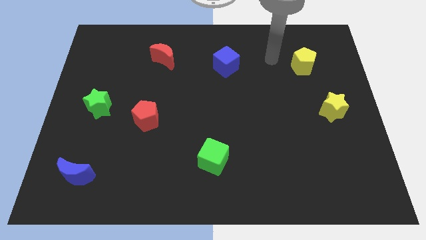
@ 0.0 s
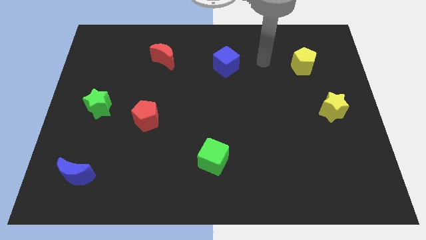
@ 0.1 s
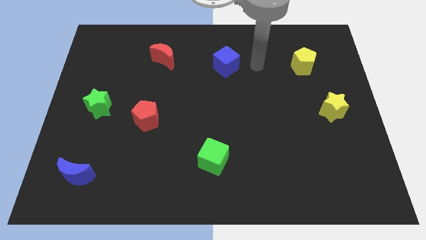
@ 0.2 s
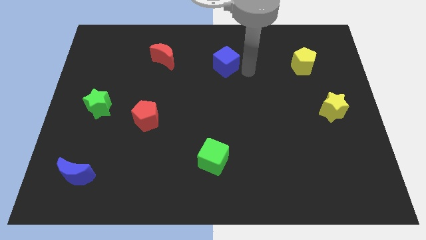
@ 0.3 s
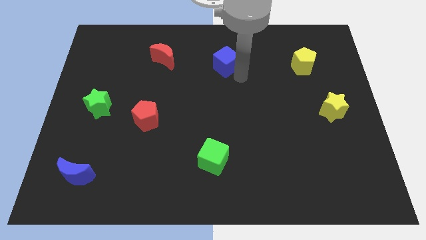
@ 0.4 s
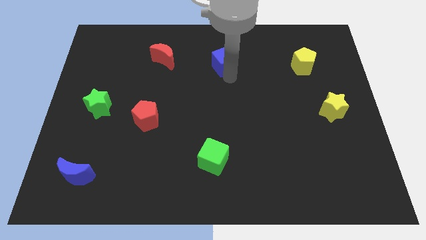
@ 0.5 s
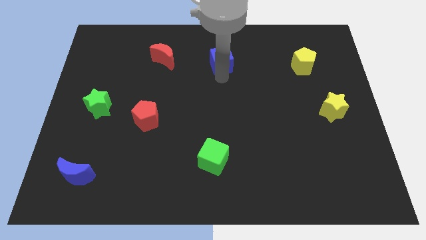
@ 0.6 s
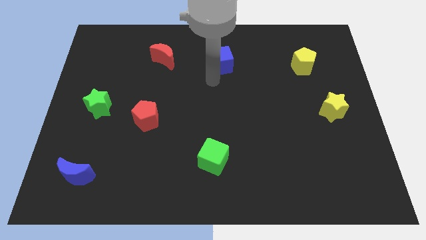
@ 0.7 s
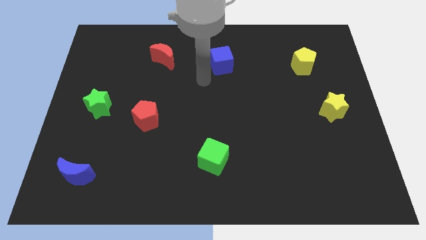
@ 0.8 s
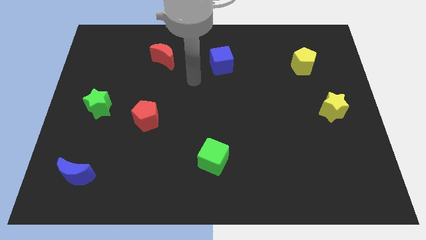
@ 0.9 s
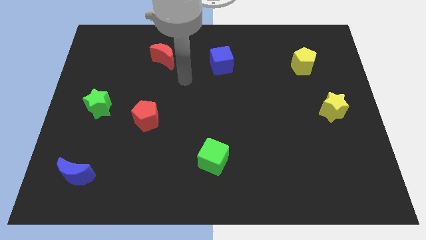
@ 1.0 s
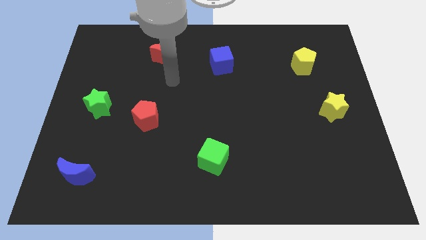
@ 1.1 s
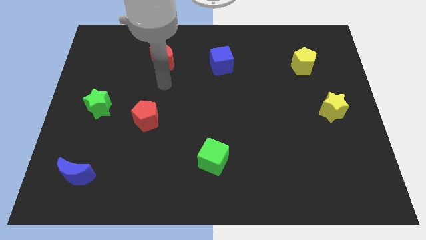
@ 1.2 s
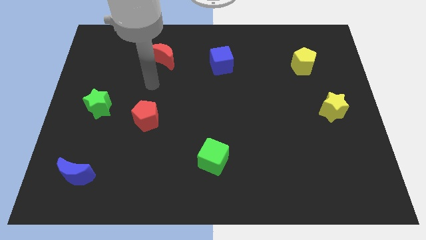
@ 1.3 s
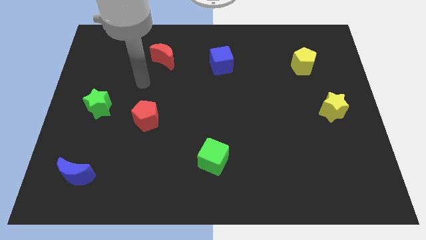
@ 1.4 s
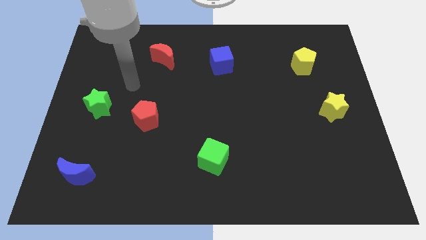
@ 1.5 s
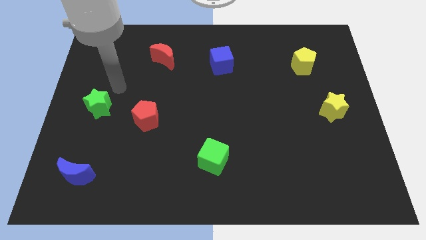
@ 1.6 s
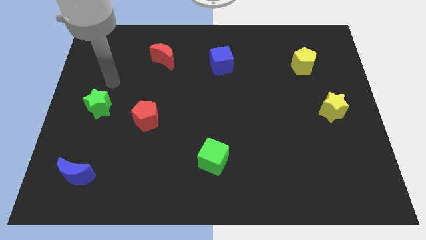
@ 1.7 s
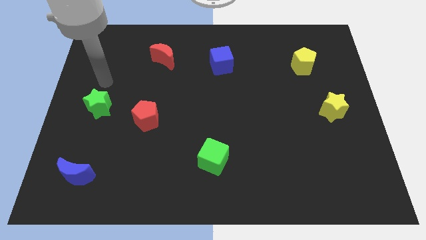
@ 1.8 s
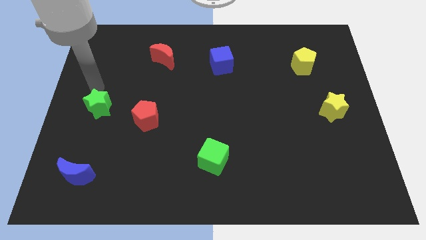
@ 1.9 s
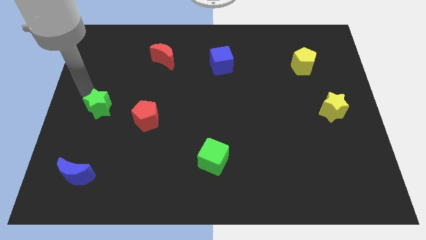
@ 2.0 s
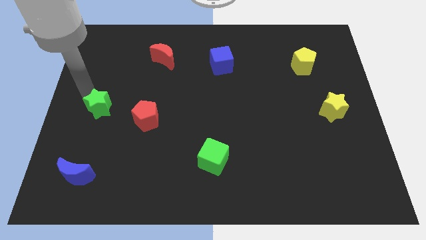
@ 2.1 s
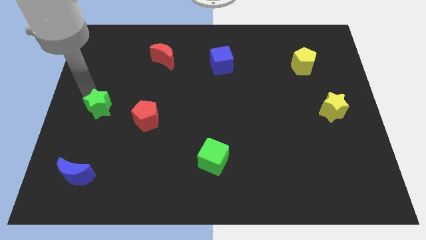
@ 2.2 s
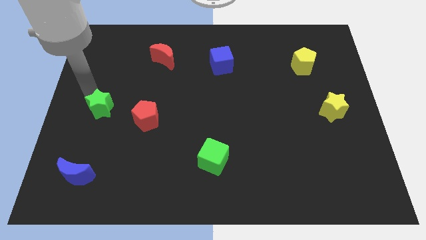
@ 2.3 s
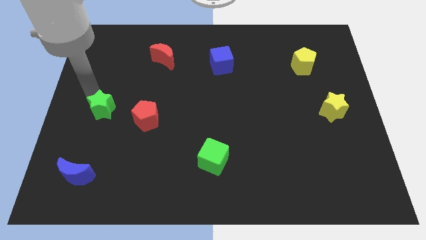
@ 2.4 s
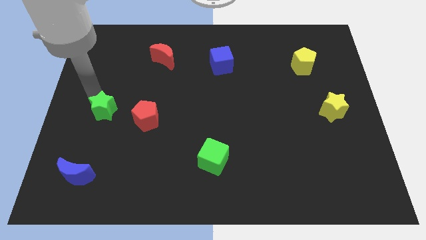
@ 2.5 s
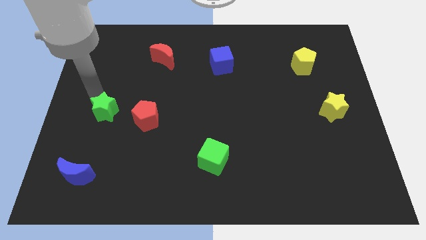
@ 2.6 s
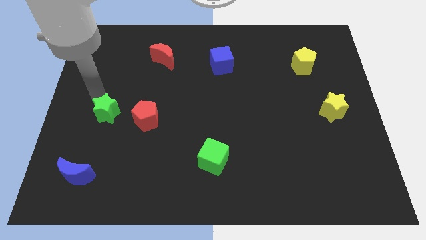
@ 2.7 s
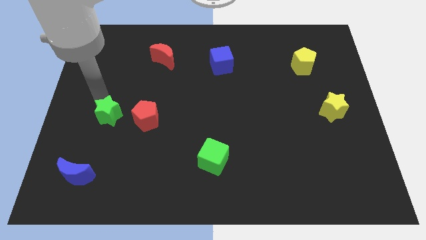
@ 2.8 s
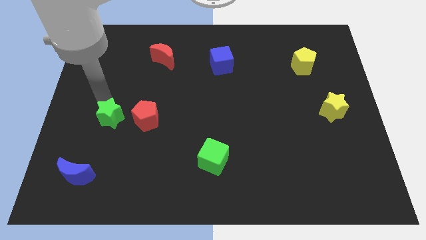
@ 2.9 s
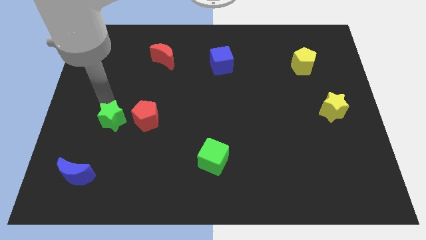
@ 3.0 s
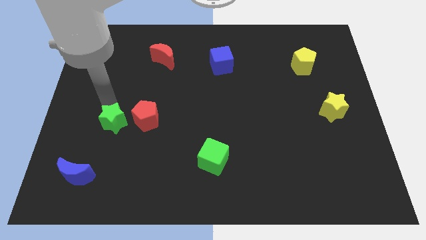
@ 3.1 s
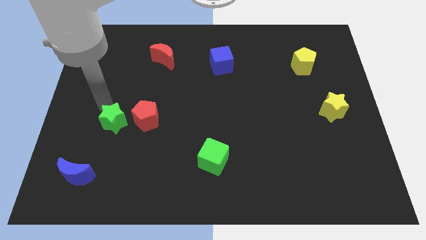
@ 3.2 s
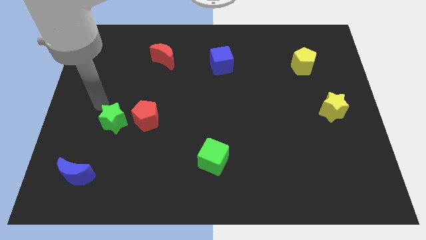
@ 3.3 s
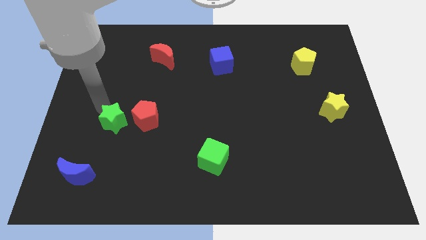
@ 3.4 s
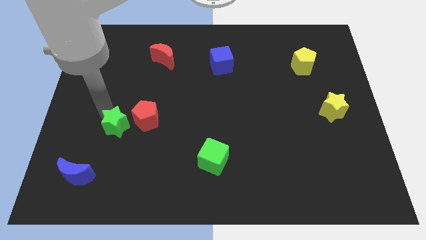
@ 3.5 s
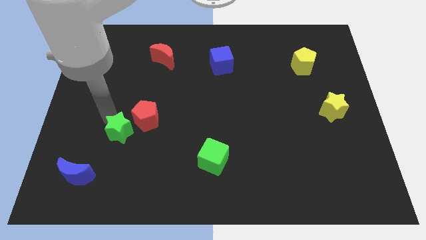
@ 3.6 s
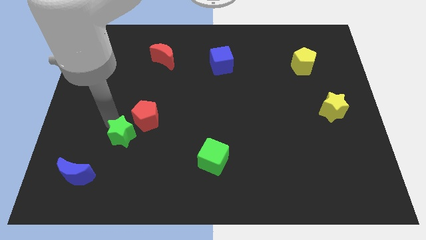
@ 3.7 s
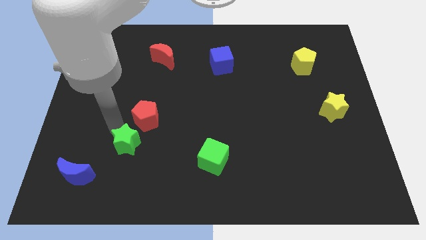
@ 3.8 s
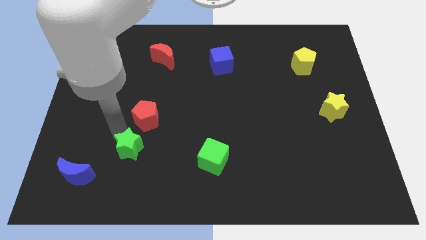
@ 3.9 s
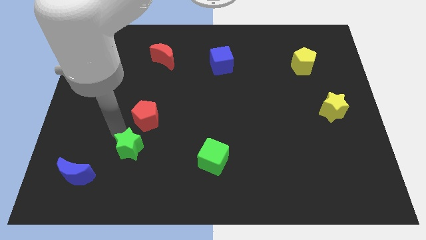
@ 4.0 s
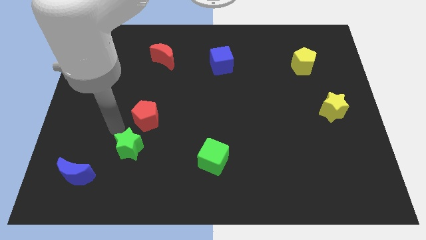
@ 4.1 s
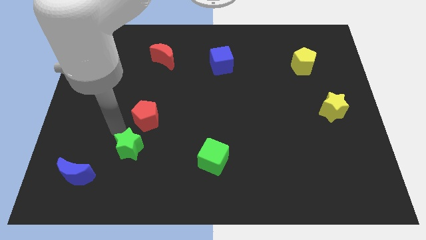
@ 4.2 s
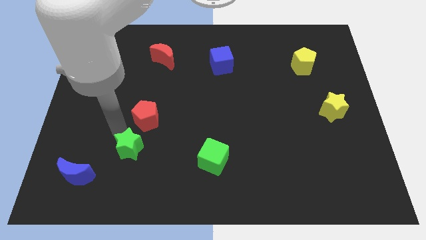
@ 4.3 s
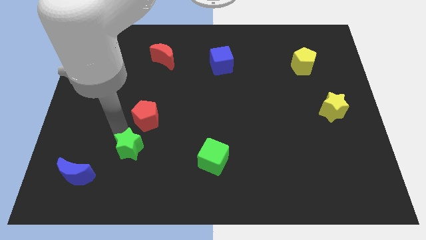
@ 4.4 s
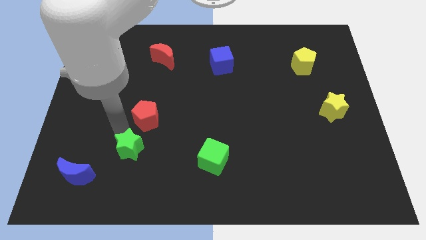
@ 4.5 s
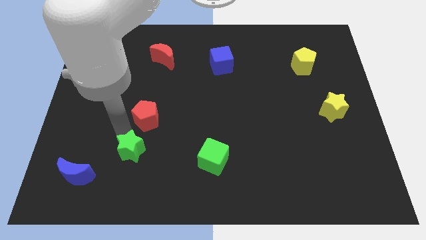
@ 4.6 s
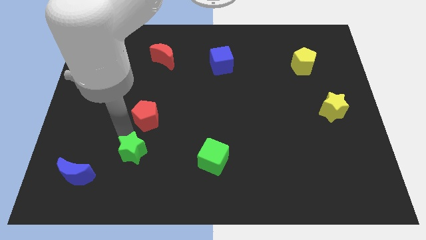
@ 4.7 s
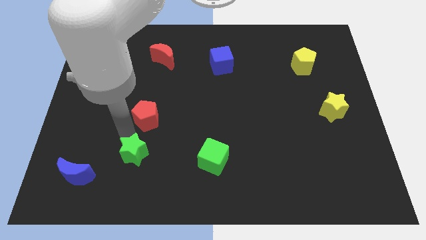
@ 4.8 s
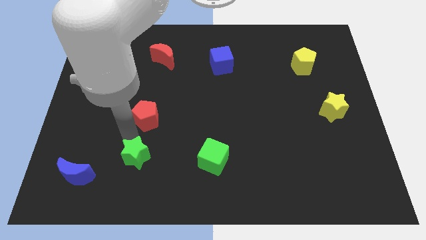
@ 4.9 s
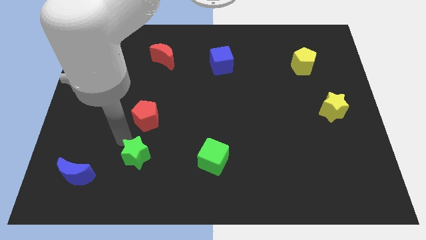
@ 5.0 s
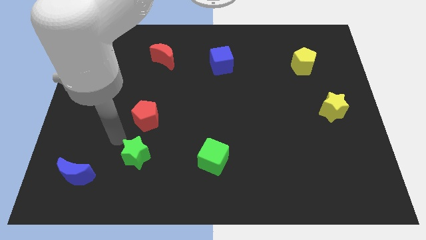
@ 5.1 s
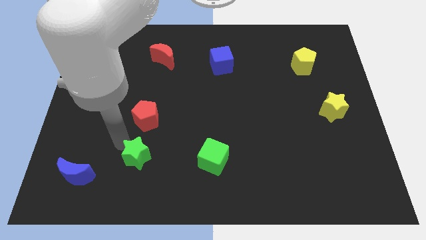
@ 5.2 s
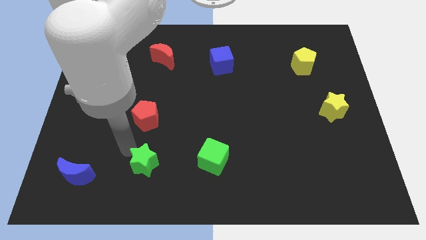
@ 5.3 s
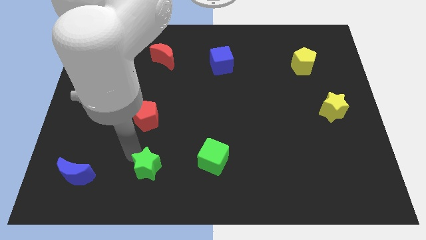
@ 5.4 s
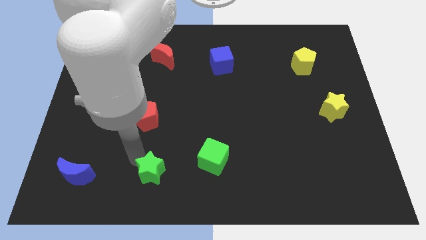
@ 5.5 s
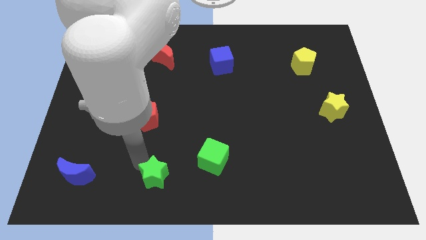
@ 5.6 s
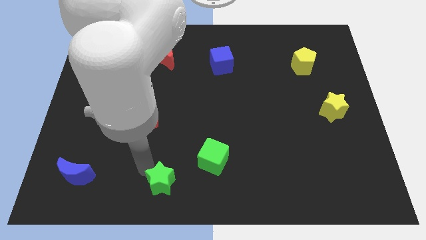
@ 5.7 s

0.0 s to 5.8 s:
push the green star to the bottom
